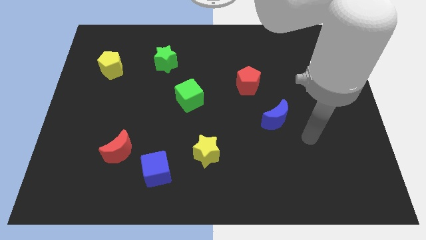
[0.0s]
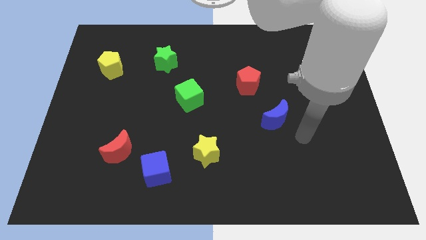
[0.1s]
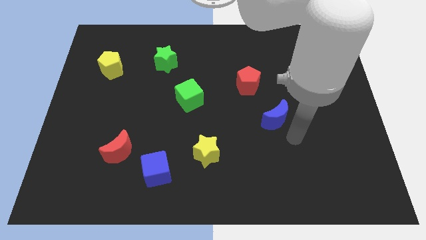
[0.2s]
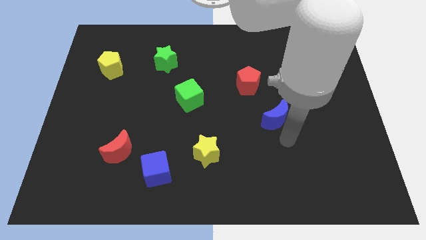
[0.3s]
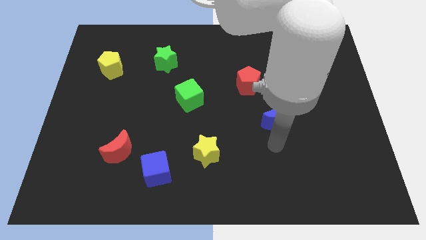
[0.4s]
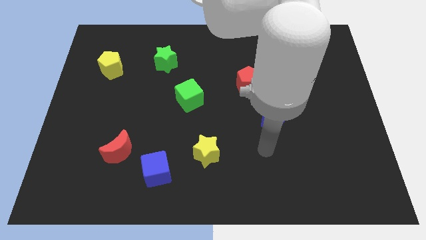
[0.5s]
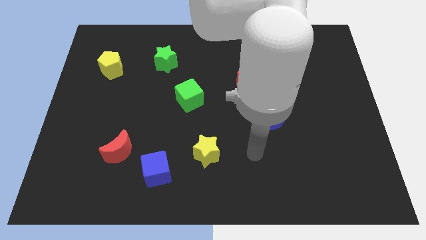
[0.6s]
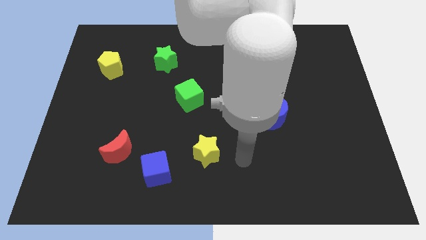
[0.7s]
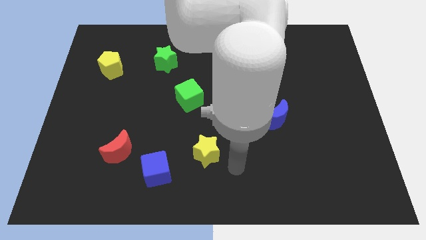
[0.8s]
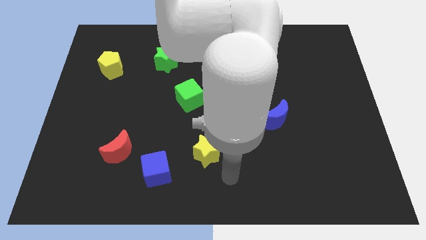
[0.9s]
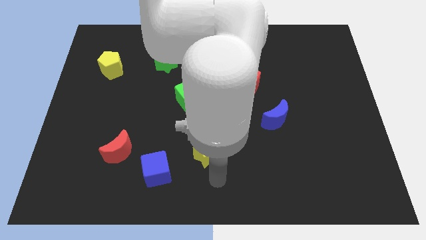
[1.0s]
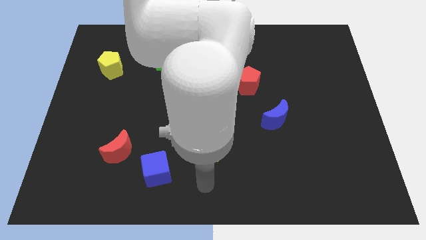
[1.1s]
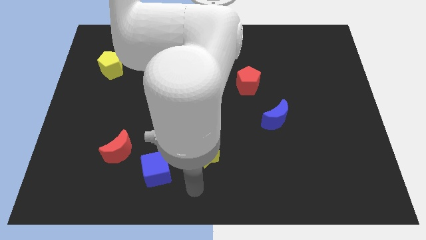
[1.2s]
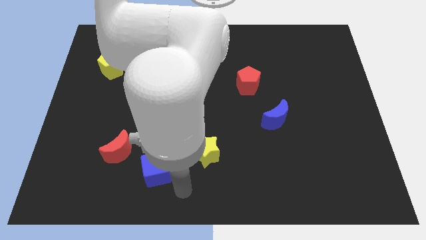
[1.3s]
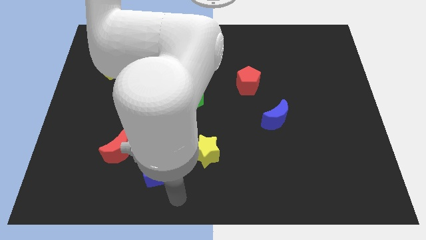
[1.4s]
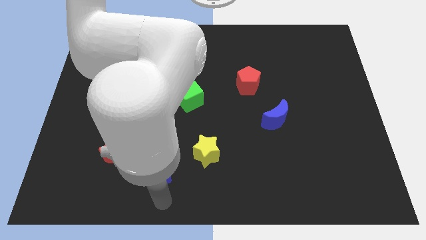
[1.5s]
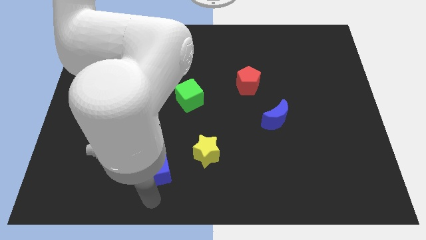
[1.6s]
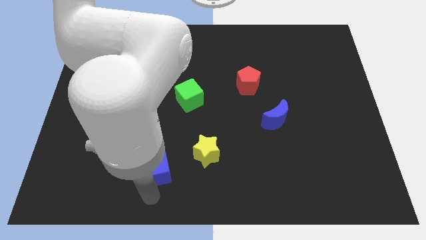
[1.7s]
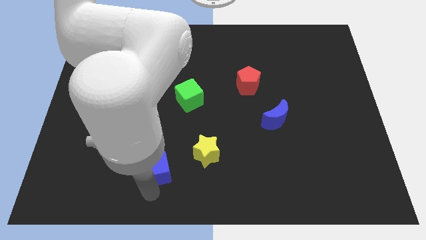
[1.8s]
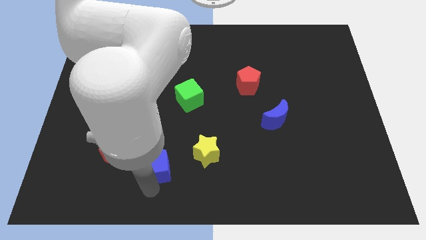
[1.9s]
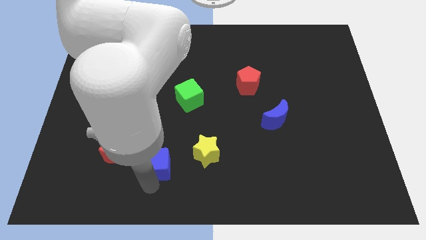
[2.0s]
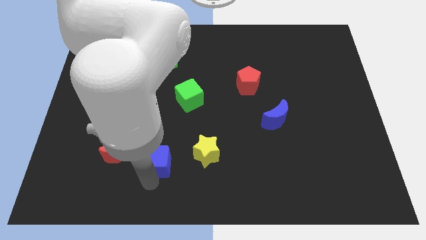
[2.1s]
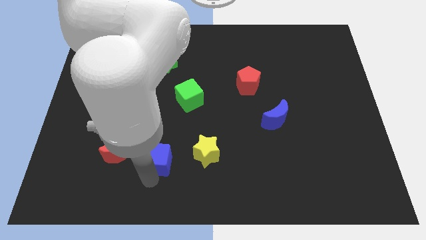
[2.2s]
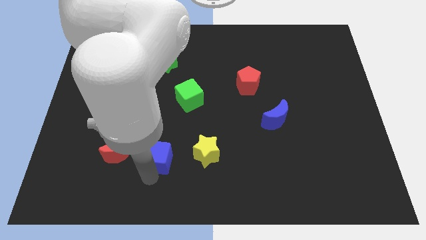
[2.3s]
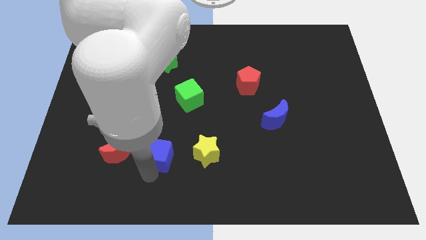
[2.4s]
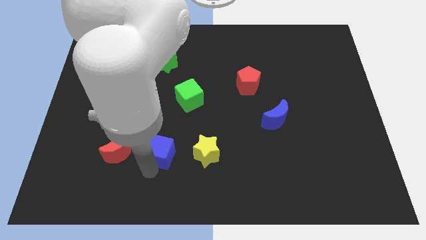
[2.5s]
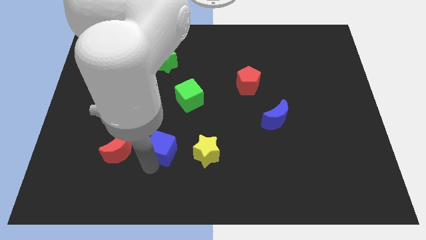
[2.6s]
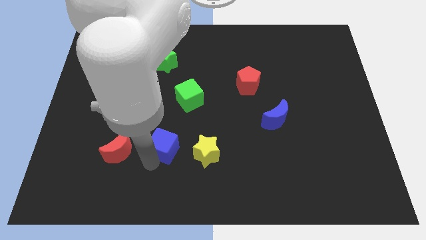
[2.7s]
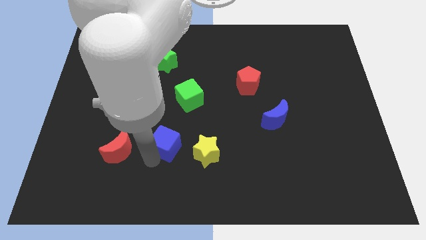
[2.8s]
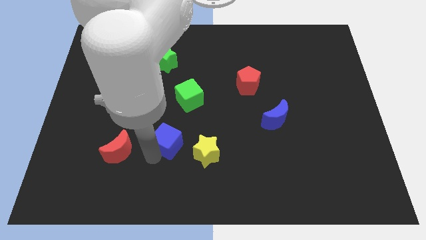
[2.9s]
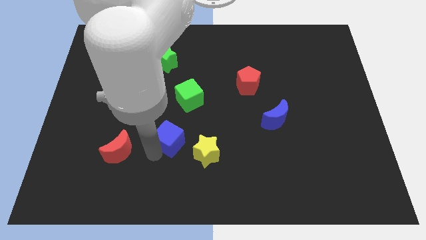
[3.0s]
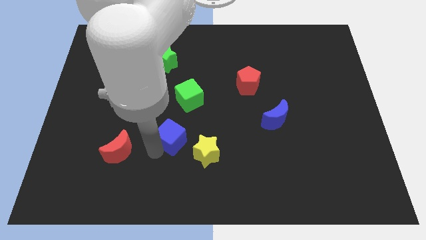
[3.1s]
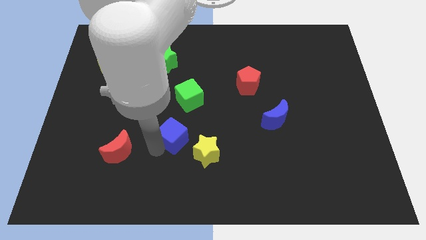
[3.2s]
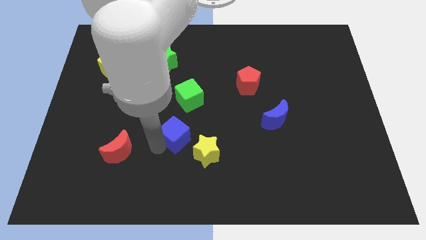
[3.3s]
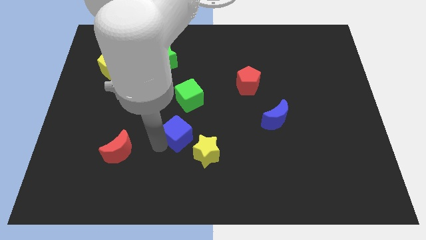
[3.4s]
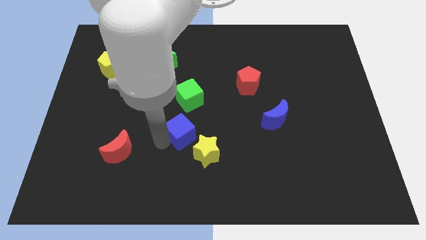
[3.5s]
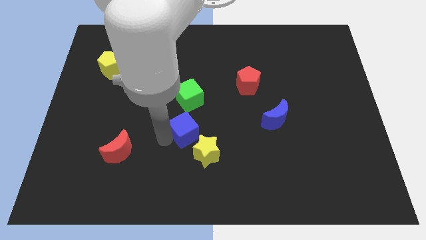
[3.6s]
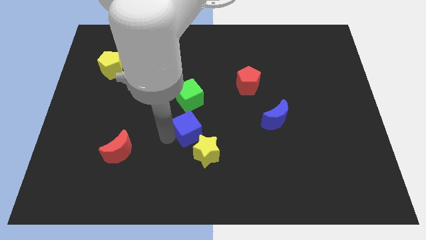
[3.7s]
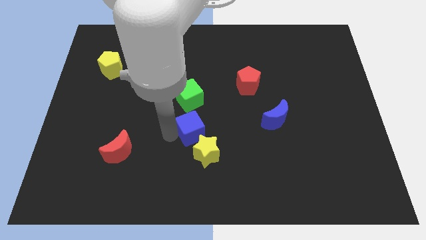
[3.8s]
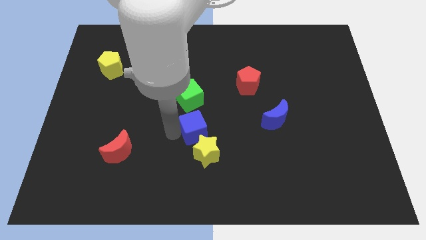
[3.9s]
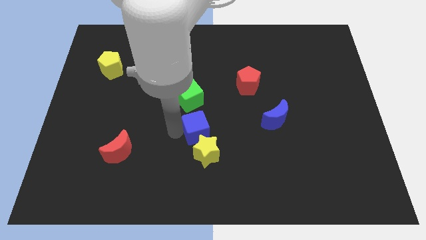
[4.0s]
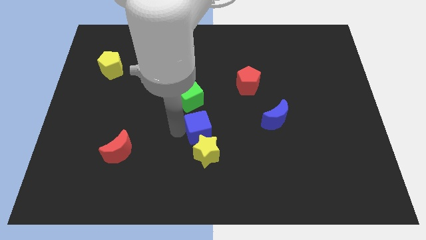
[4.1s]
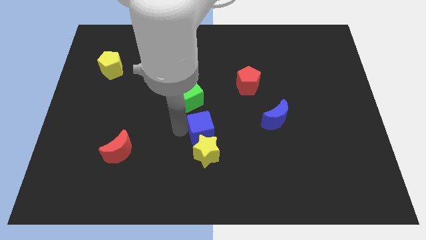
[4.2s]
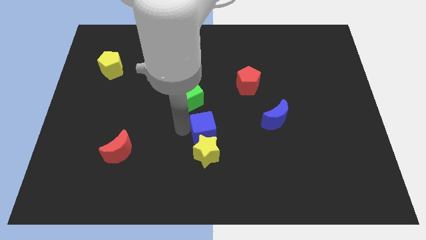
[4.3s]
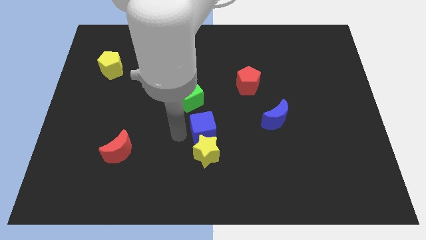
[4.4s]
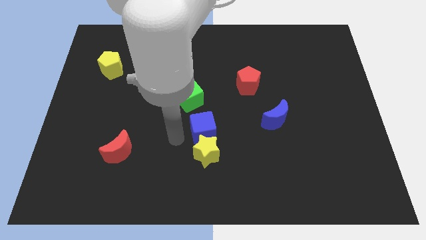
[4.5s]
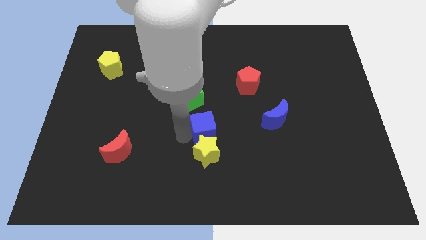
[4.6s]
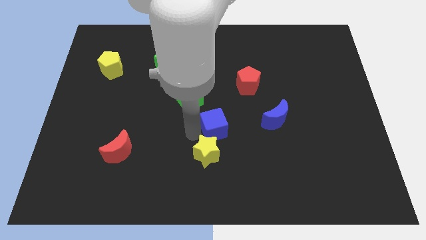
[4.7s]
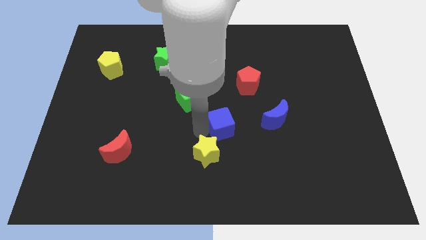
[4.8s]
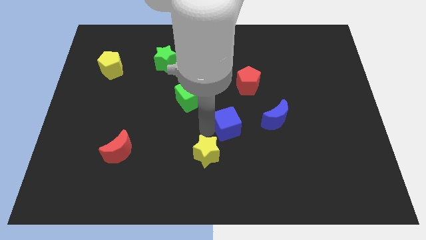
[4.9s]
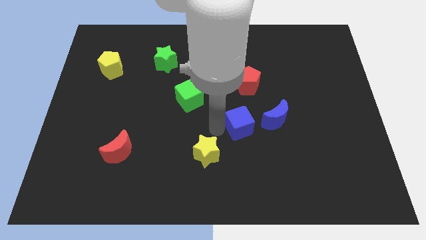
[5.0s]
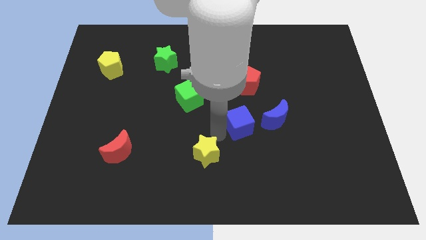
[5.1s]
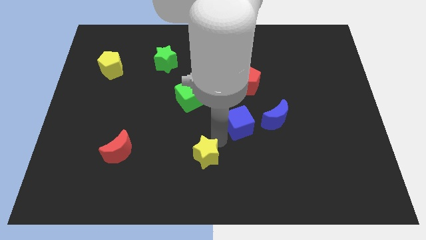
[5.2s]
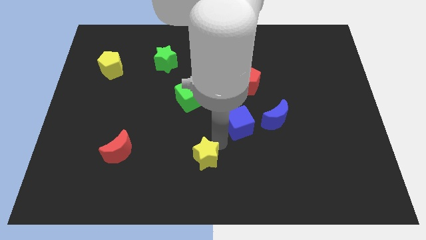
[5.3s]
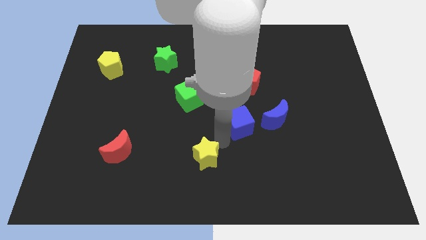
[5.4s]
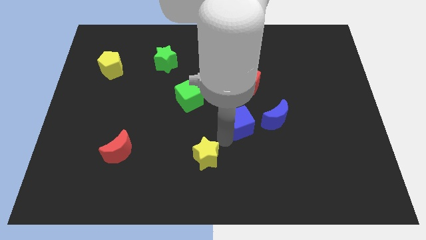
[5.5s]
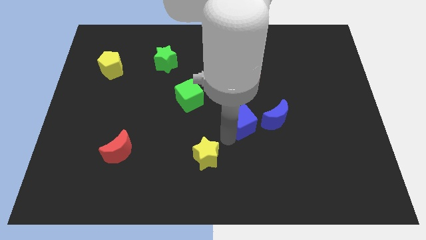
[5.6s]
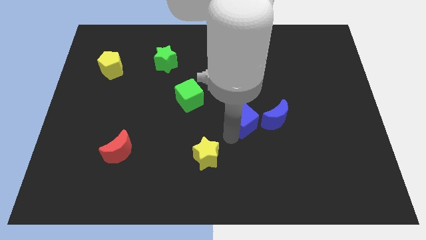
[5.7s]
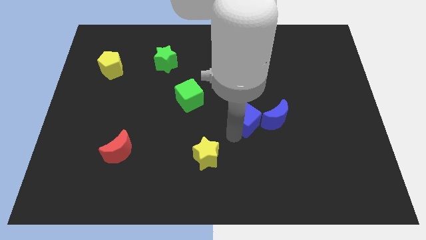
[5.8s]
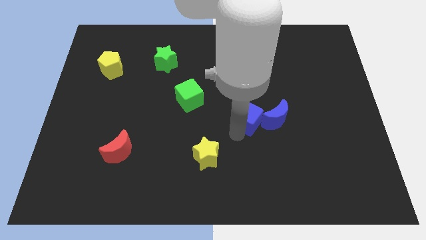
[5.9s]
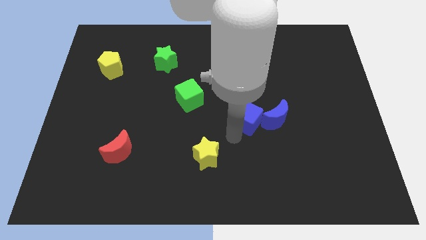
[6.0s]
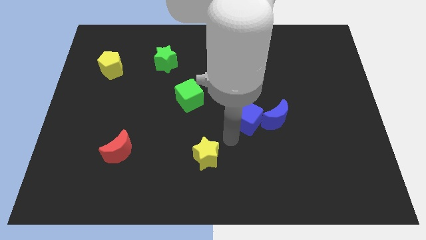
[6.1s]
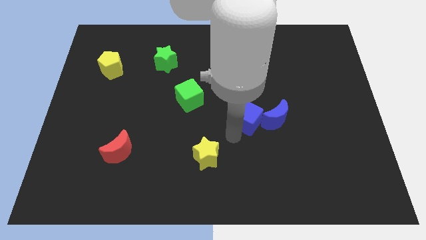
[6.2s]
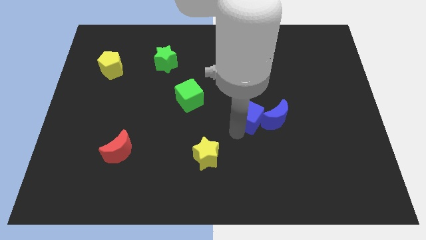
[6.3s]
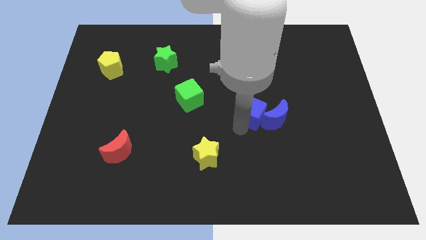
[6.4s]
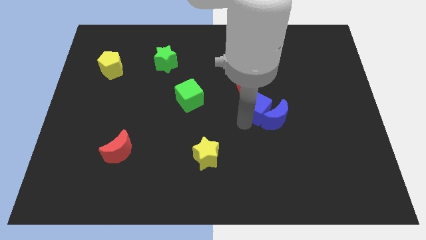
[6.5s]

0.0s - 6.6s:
slide the blue cube to the bottom right of the red pentagon

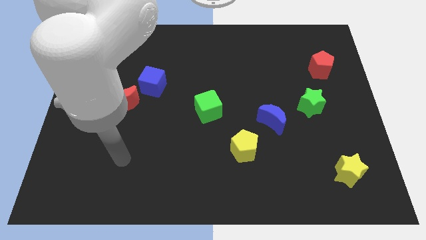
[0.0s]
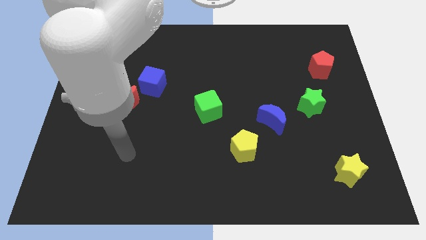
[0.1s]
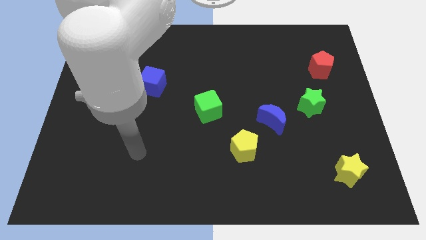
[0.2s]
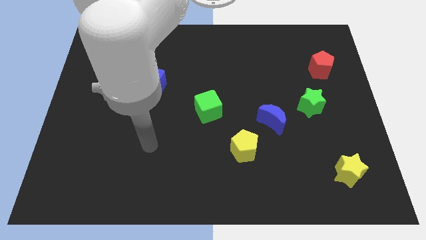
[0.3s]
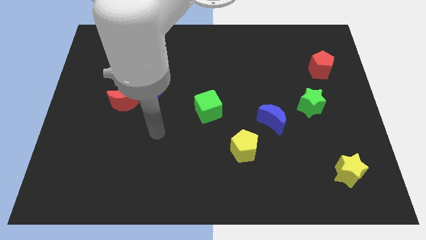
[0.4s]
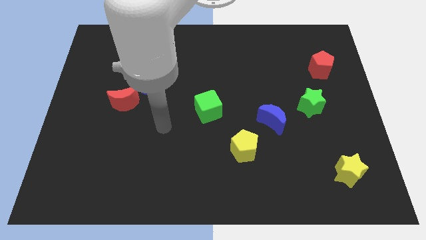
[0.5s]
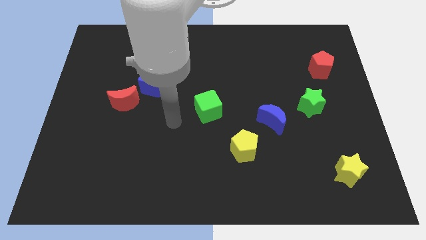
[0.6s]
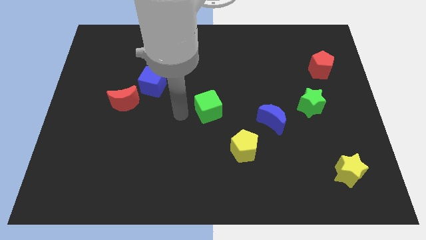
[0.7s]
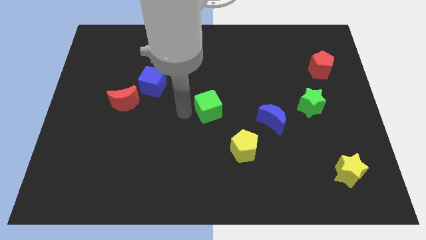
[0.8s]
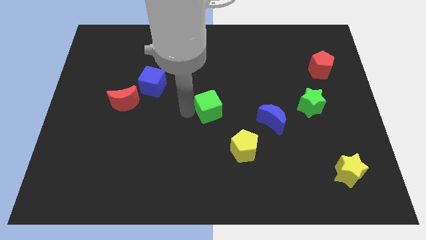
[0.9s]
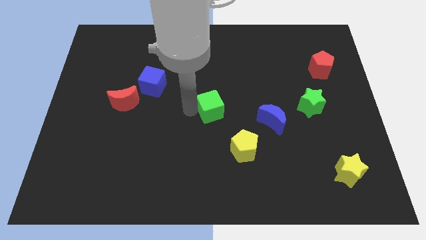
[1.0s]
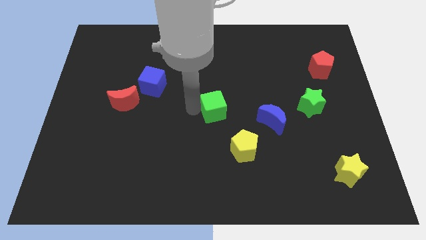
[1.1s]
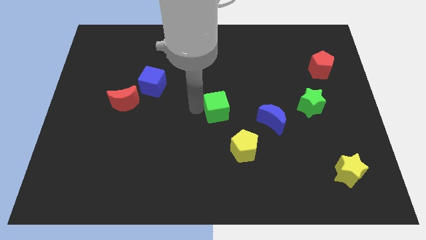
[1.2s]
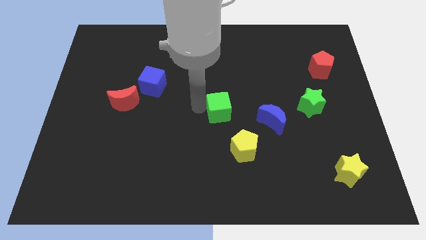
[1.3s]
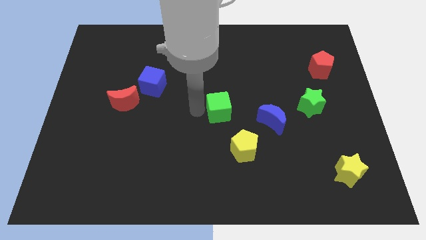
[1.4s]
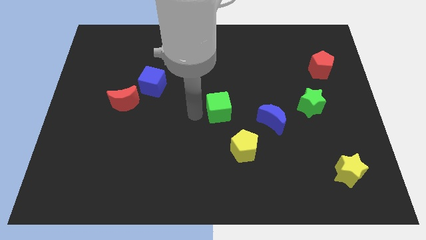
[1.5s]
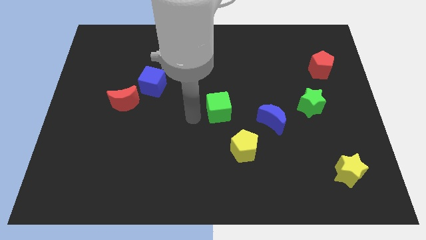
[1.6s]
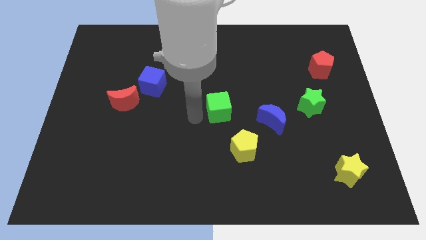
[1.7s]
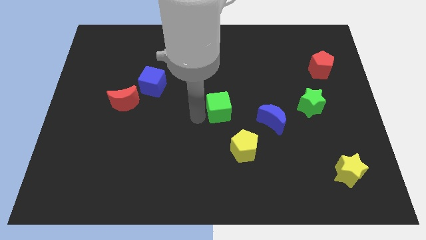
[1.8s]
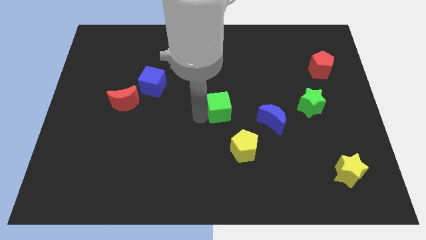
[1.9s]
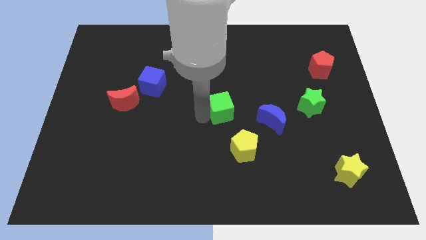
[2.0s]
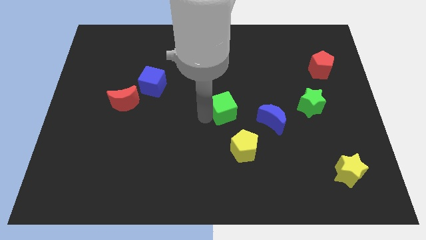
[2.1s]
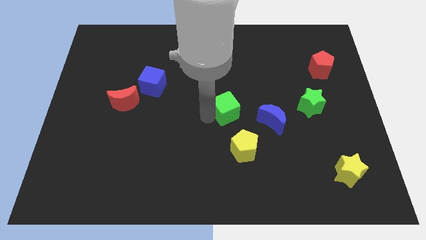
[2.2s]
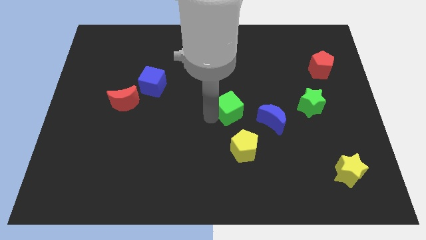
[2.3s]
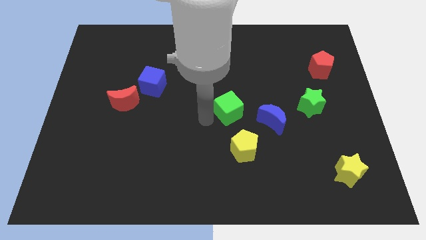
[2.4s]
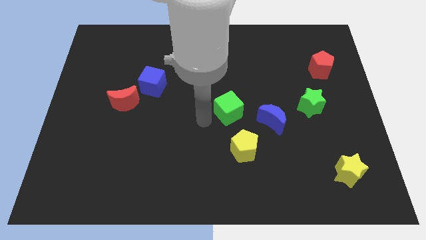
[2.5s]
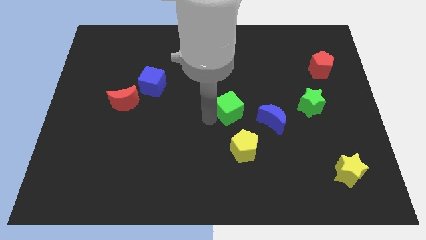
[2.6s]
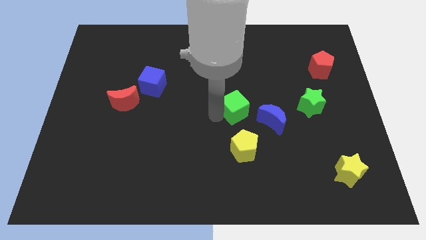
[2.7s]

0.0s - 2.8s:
push the green cube to the top left of the blue moon
